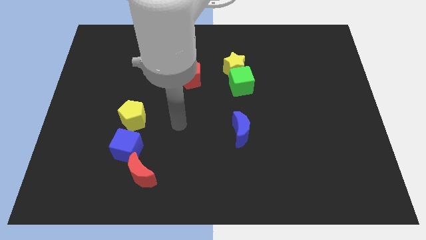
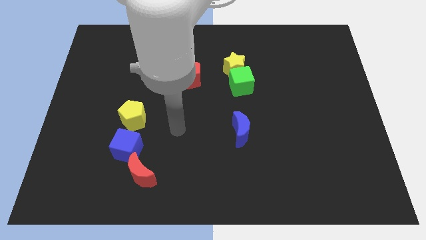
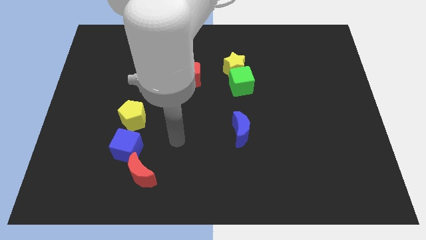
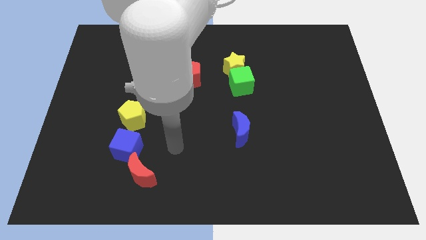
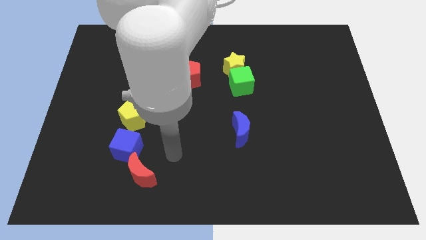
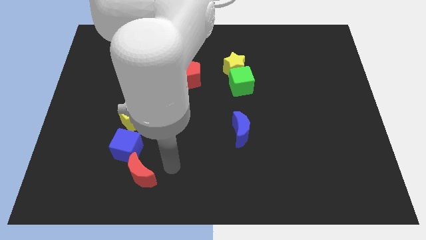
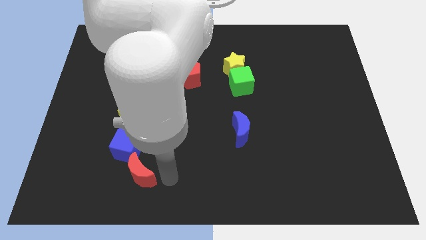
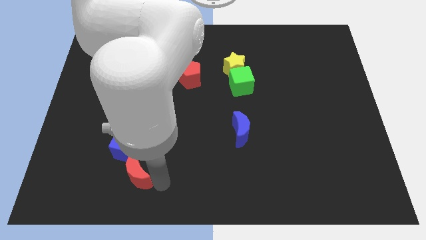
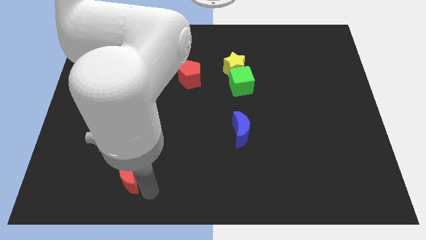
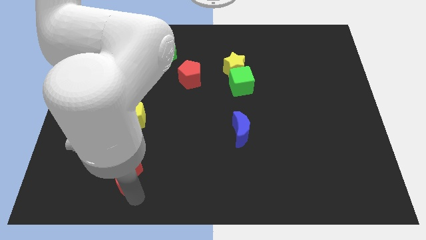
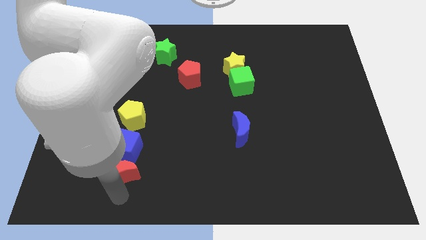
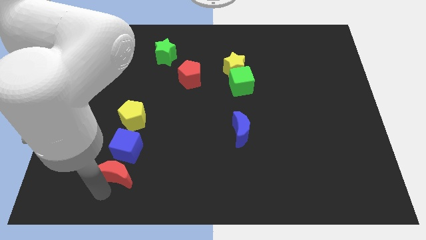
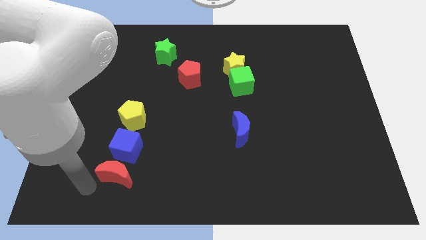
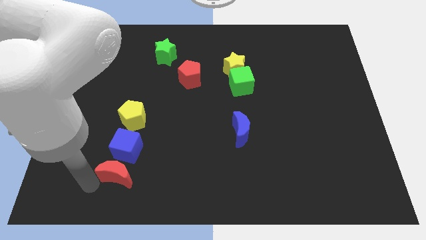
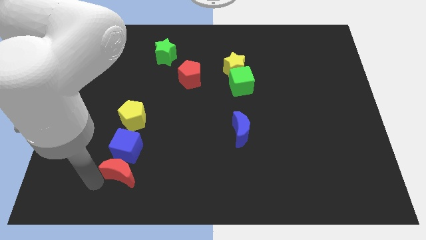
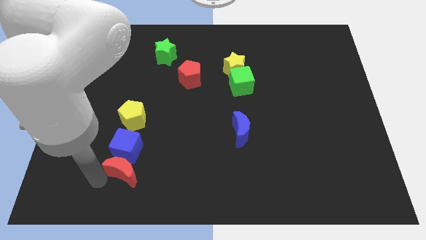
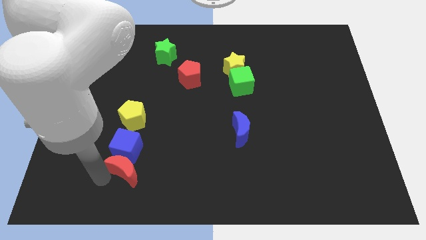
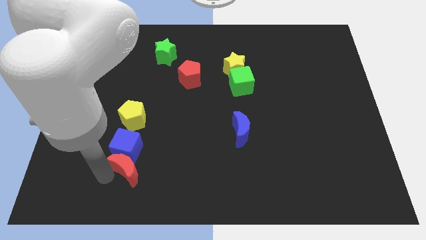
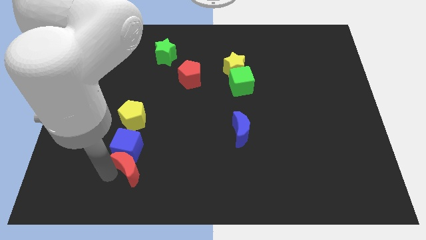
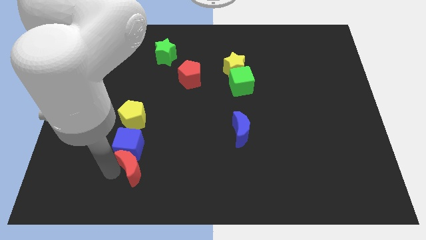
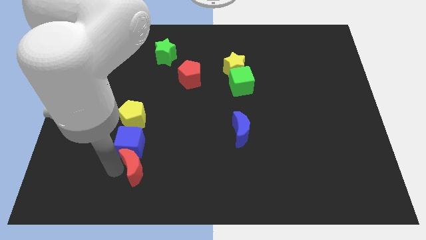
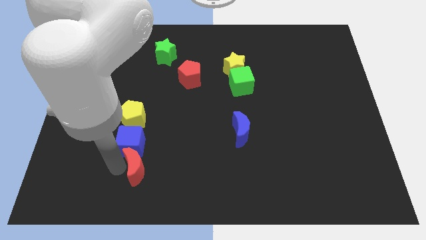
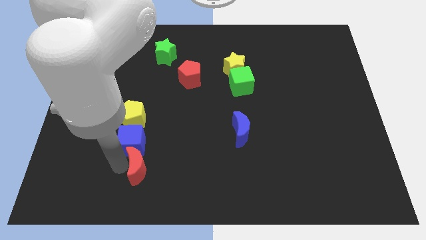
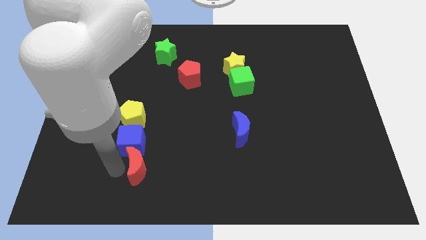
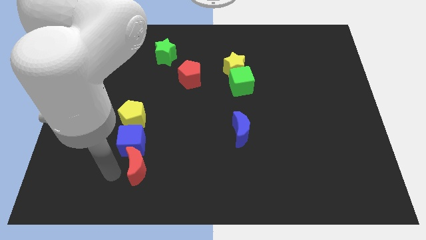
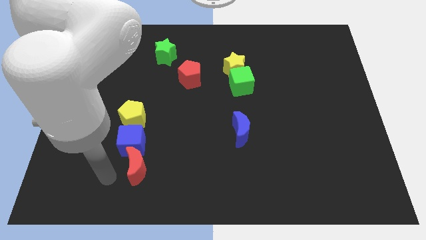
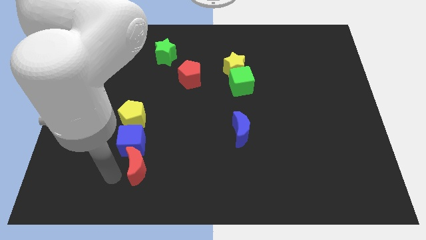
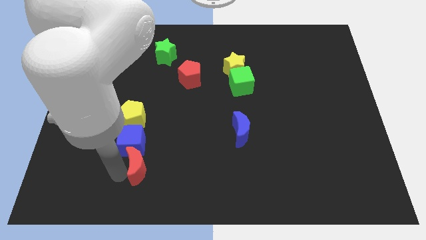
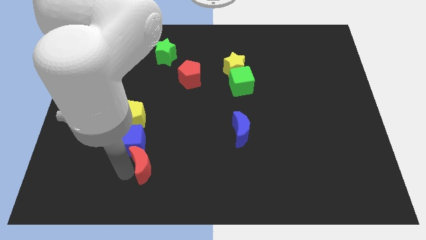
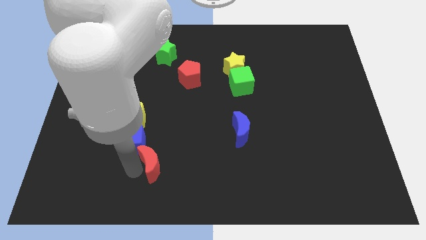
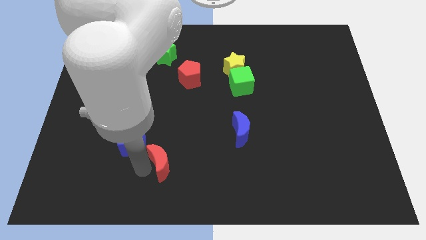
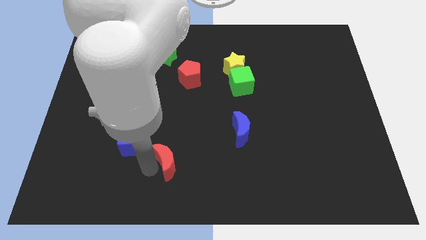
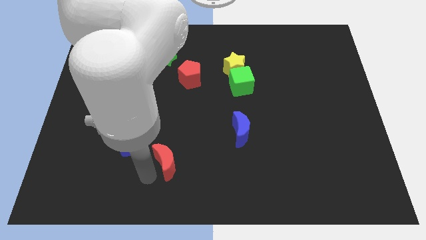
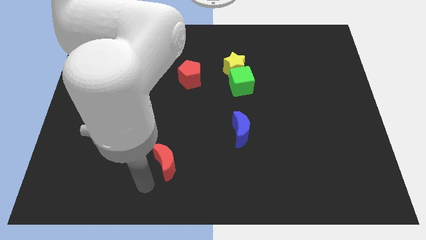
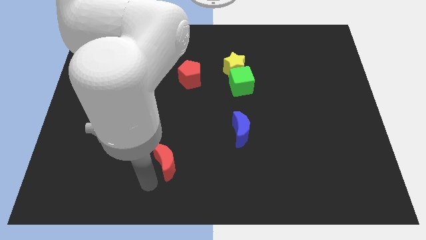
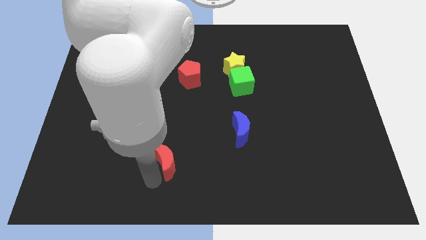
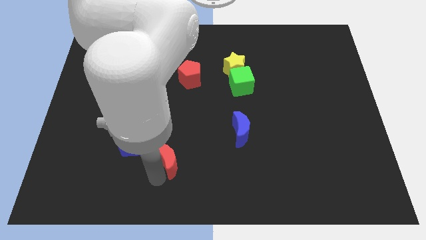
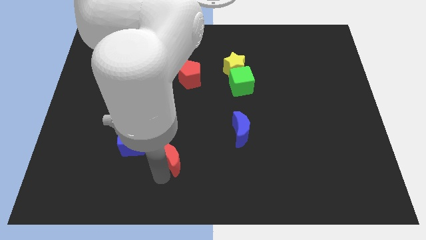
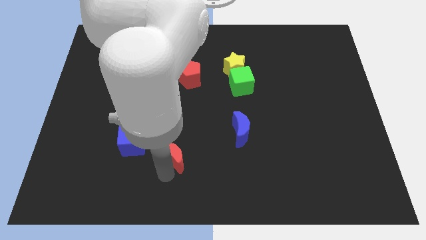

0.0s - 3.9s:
push the red moon diagonally upwards and right a little bit

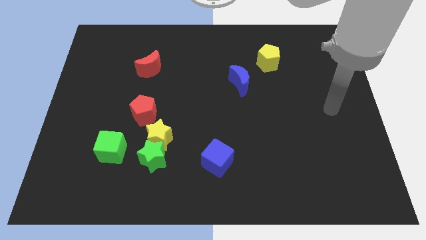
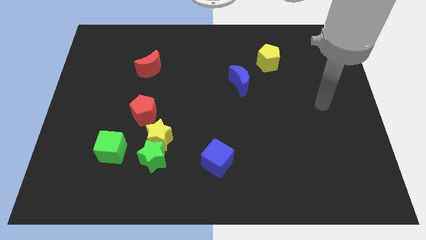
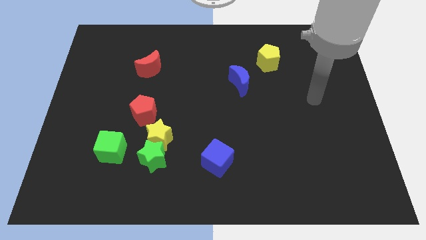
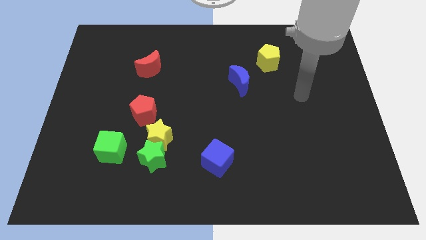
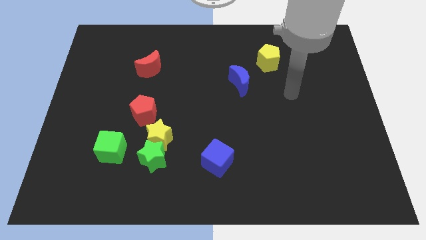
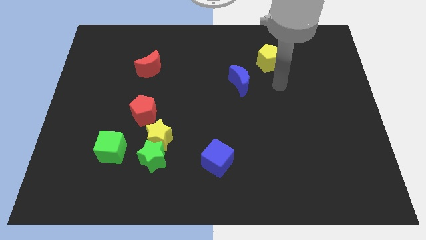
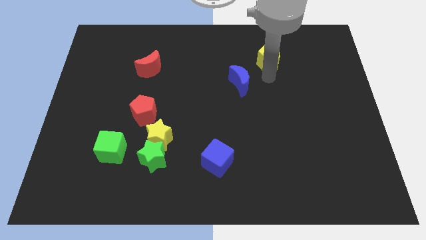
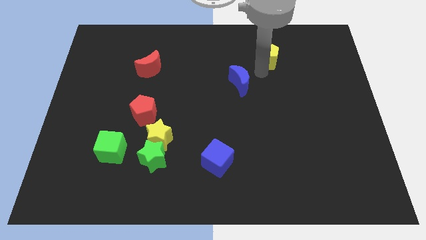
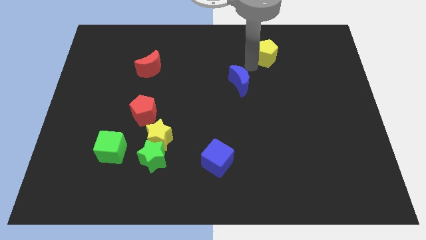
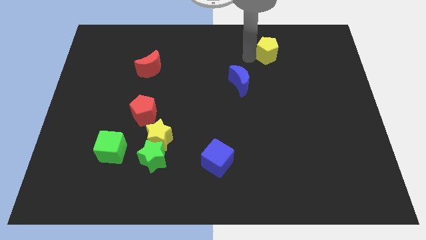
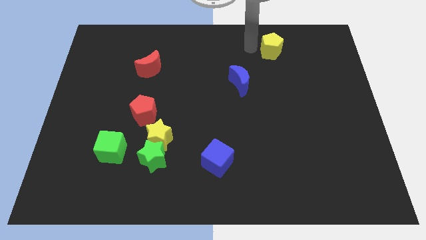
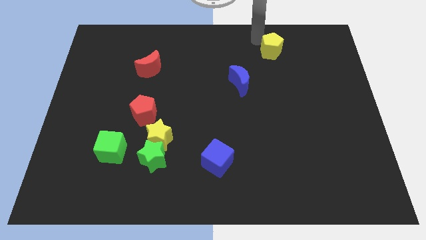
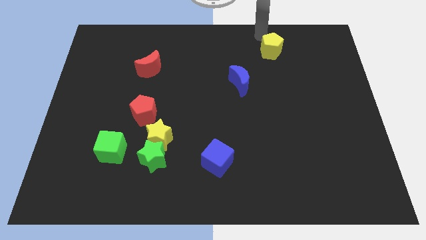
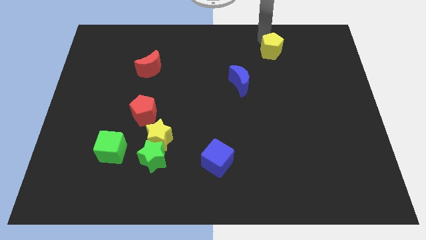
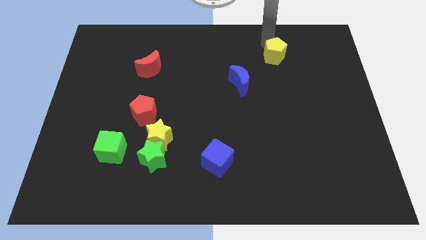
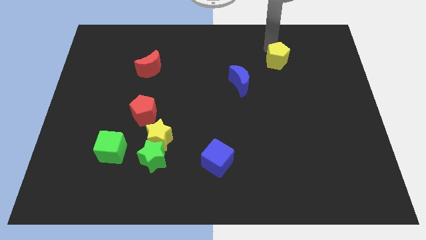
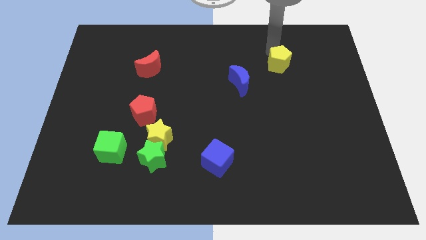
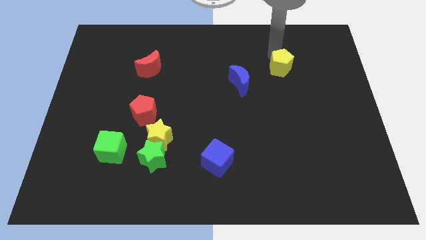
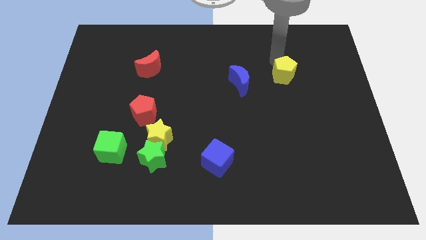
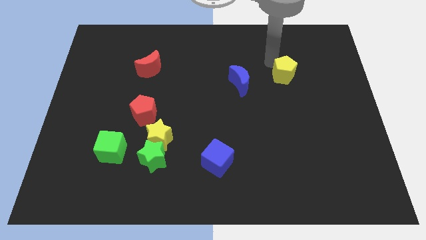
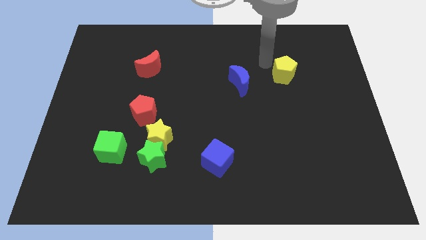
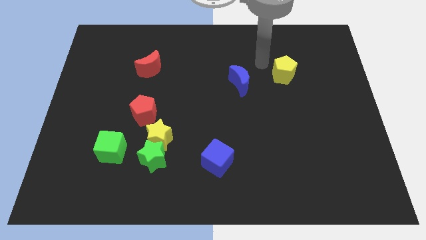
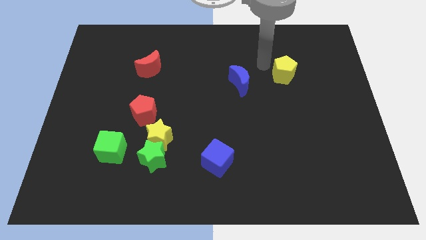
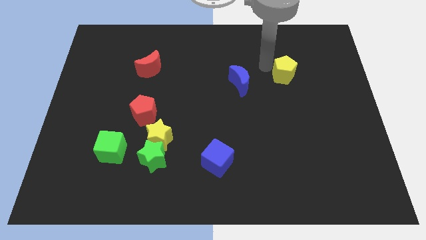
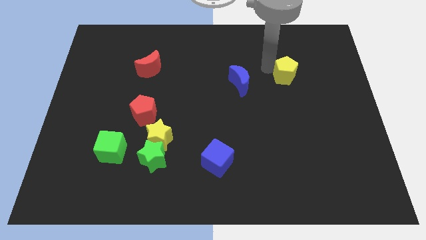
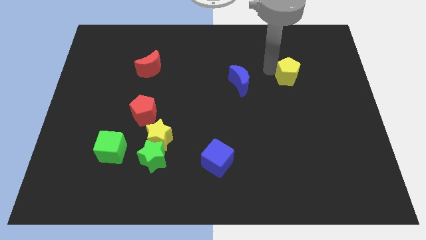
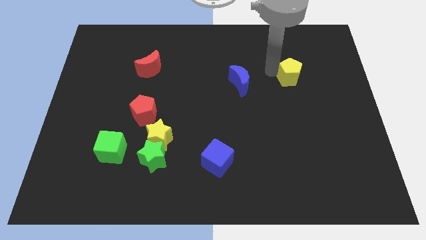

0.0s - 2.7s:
move the yellow pentagon downwards and right diagonally a little bit

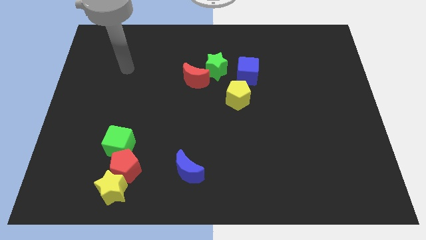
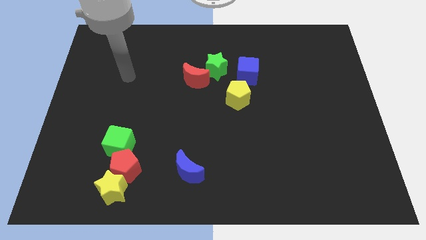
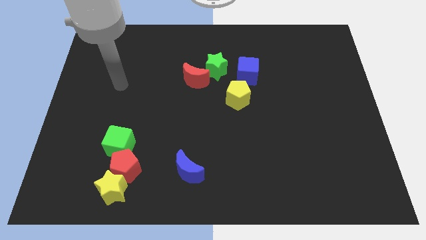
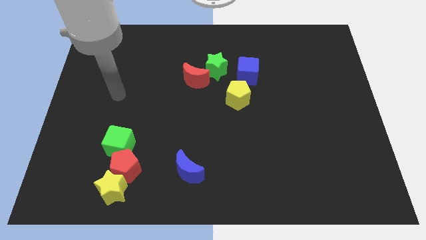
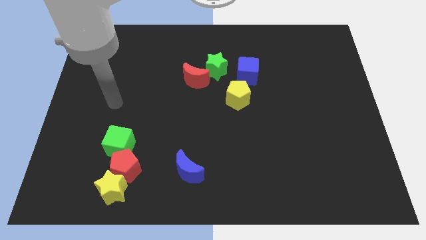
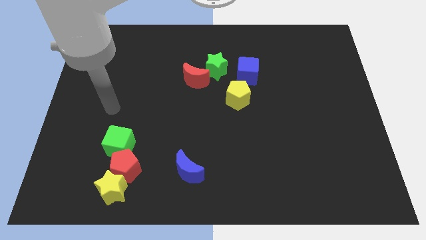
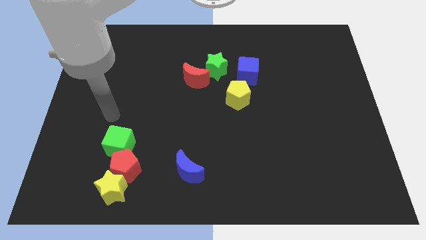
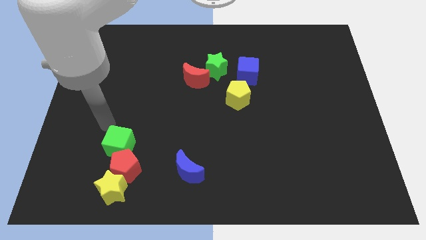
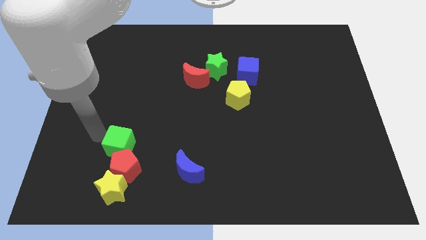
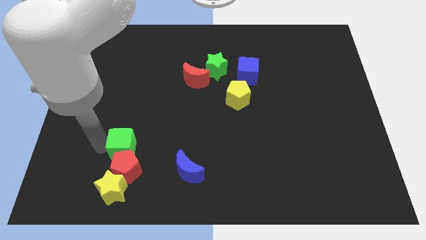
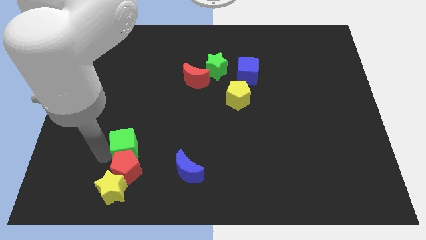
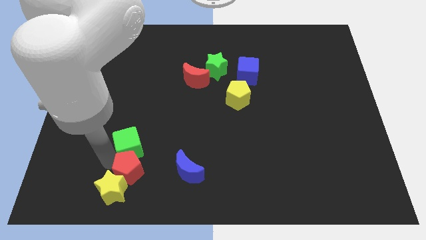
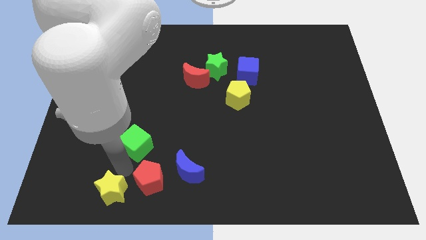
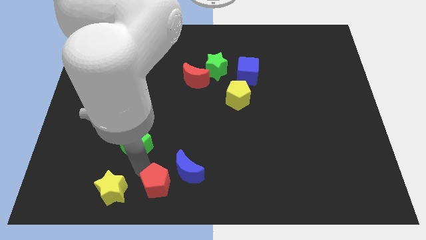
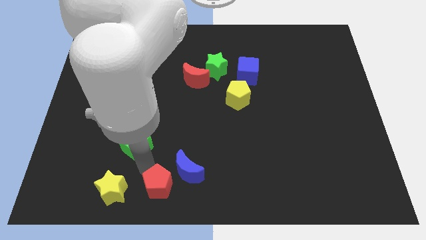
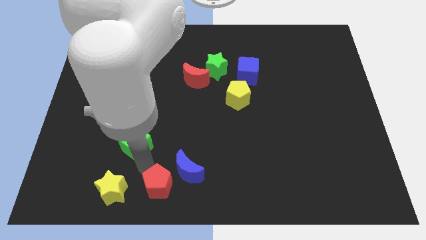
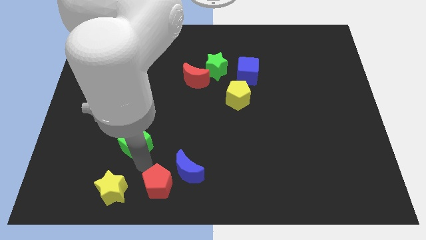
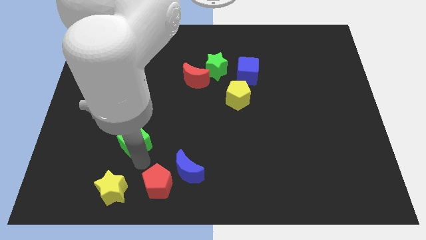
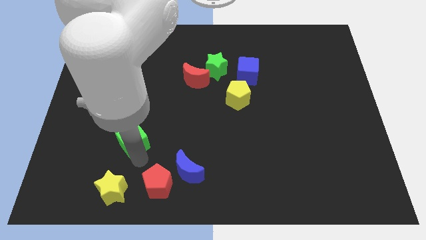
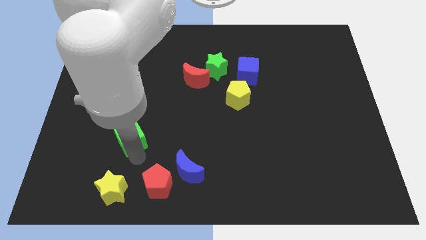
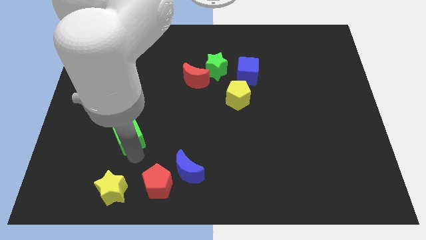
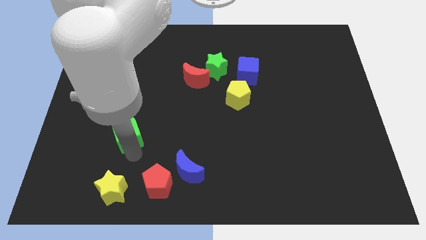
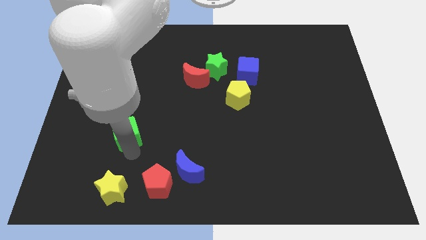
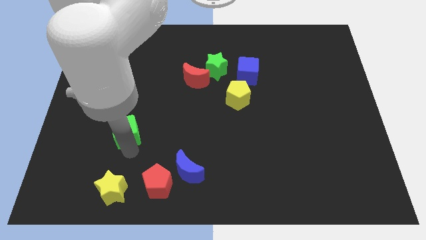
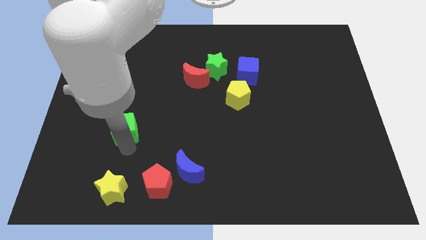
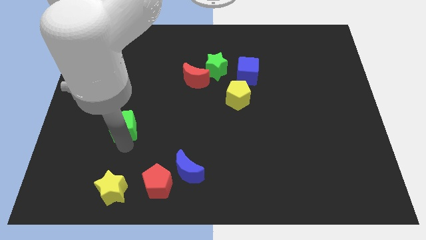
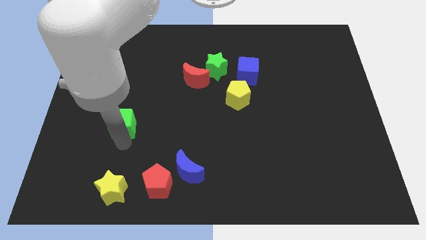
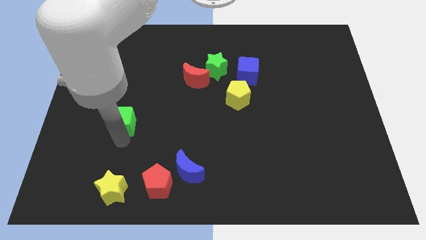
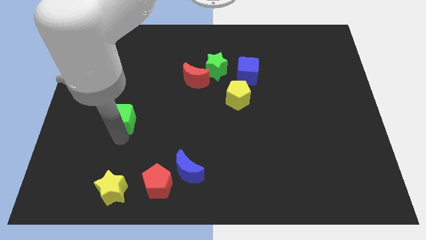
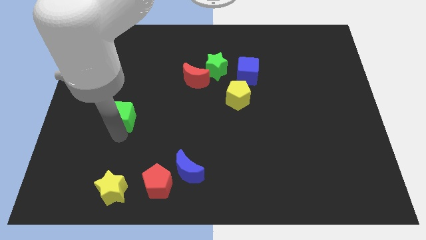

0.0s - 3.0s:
move the green cube upwards slightly
